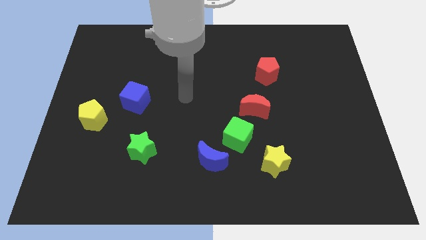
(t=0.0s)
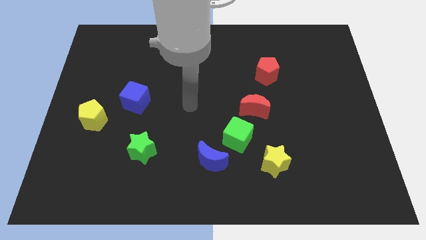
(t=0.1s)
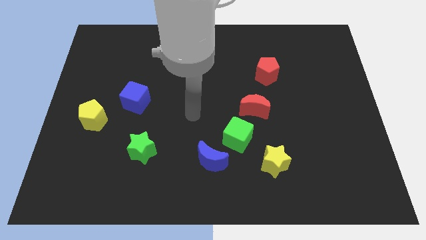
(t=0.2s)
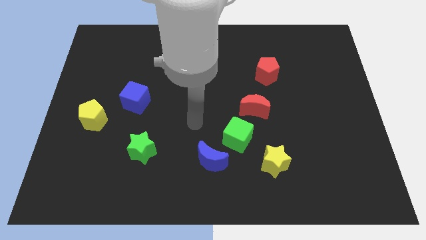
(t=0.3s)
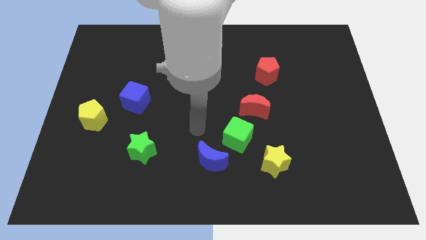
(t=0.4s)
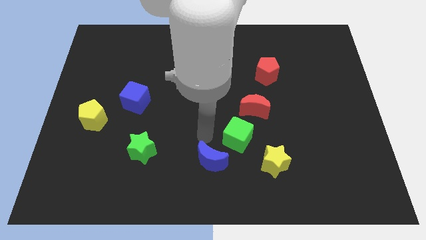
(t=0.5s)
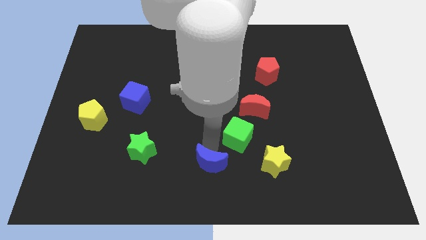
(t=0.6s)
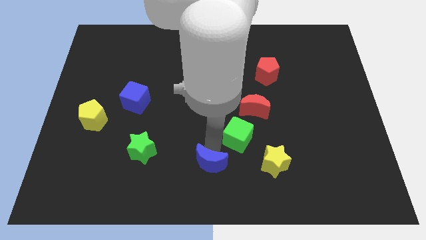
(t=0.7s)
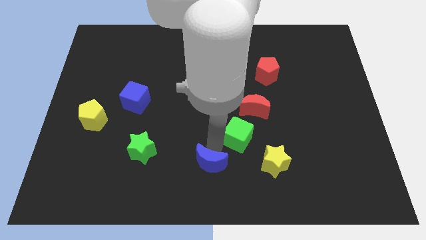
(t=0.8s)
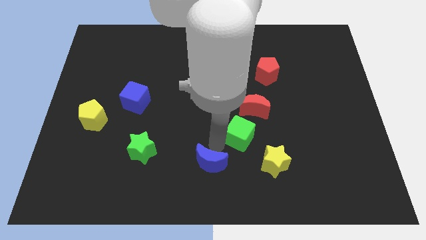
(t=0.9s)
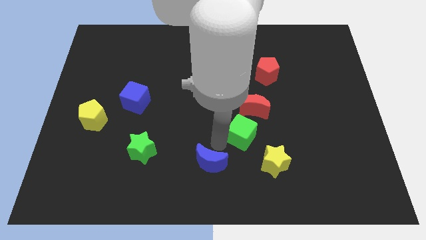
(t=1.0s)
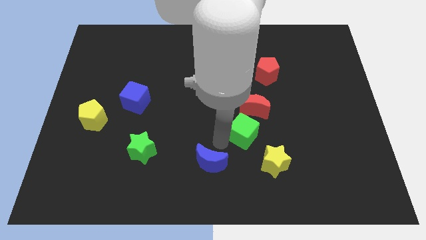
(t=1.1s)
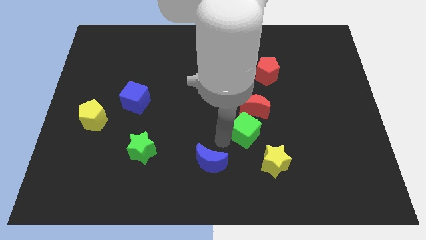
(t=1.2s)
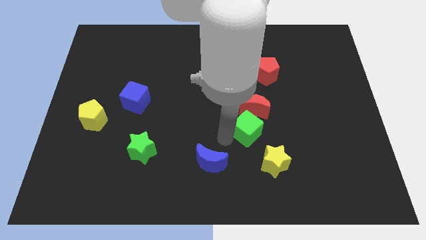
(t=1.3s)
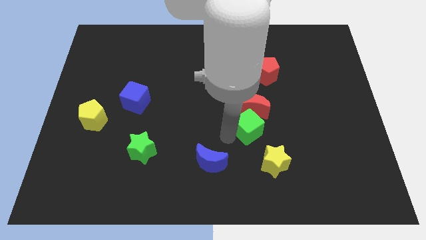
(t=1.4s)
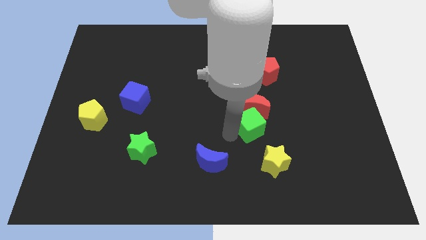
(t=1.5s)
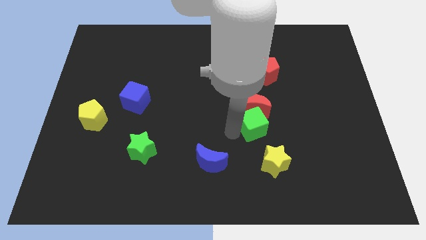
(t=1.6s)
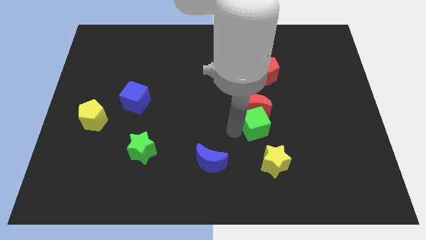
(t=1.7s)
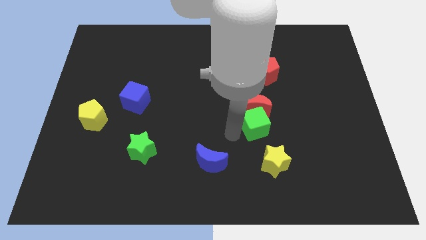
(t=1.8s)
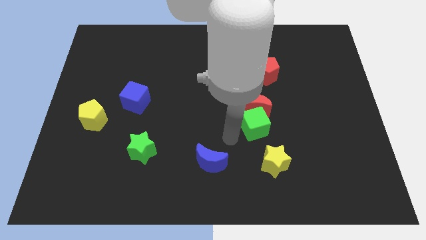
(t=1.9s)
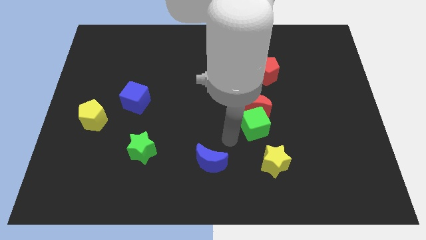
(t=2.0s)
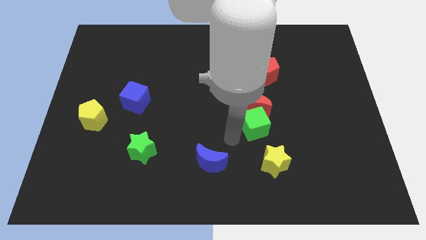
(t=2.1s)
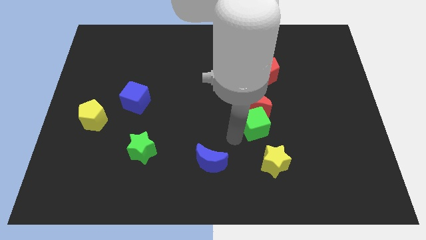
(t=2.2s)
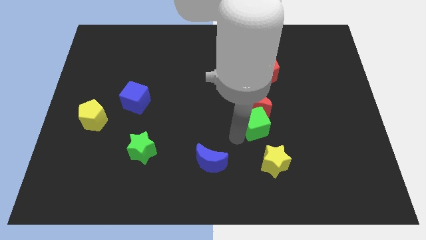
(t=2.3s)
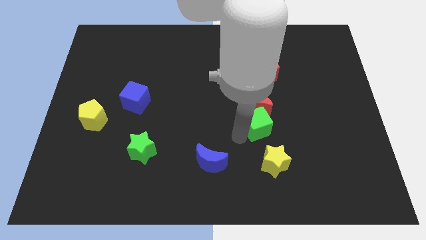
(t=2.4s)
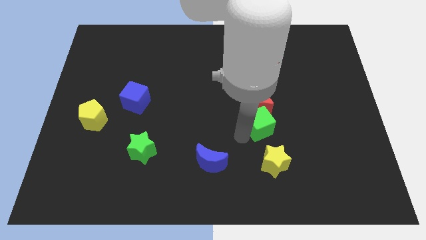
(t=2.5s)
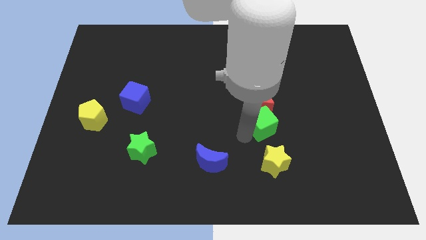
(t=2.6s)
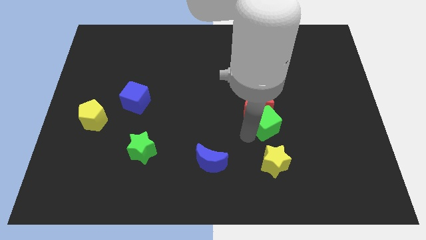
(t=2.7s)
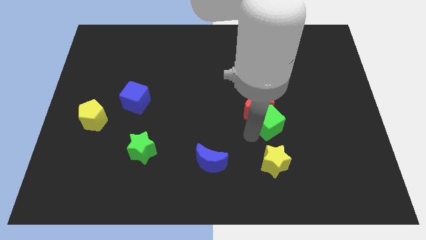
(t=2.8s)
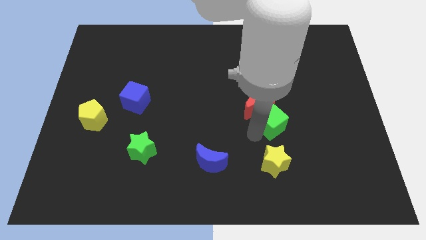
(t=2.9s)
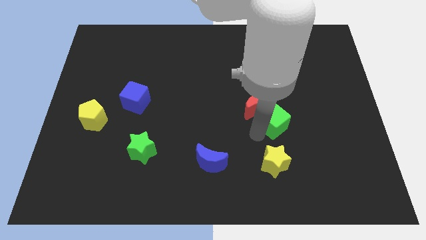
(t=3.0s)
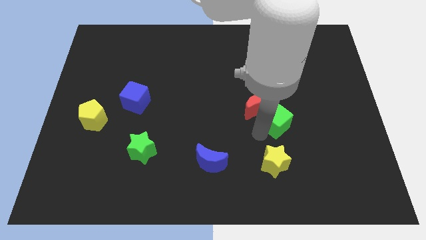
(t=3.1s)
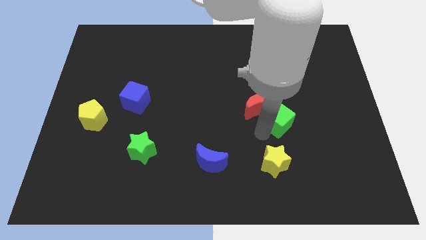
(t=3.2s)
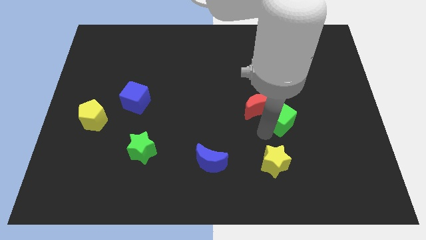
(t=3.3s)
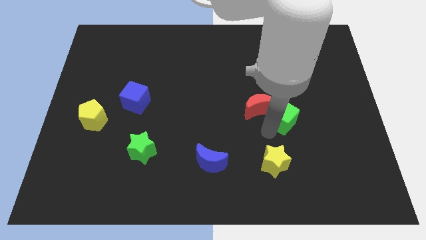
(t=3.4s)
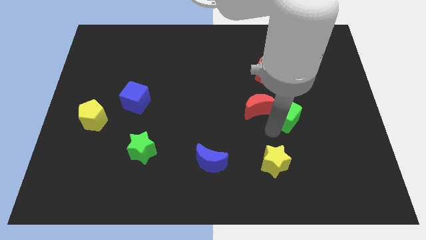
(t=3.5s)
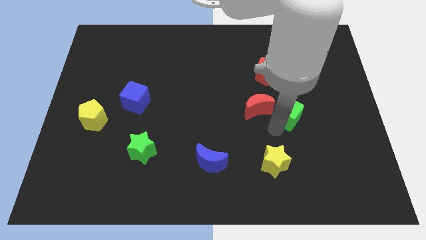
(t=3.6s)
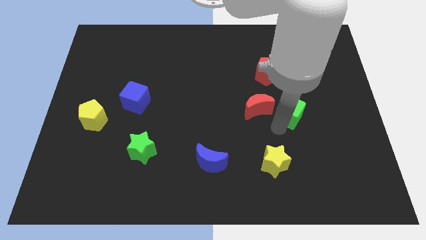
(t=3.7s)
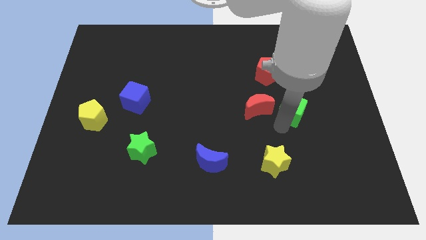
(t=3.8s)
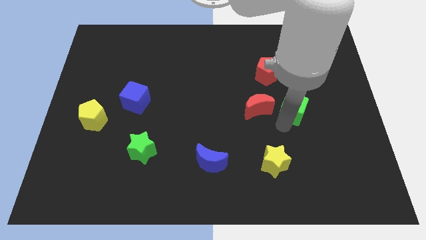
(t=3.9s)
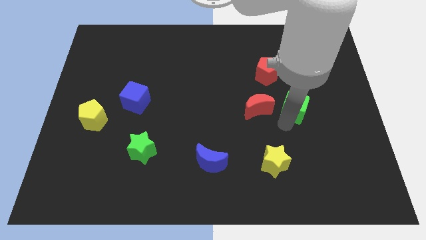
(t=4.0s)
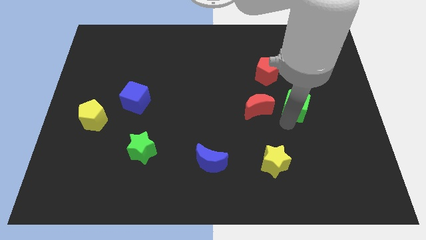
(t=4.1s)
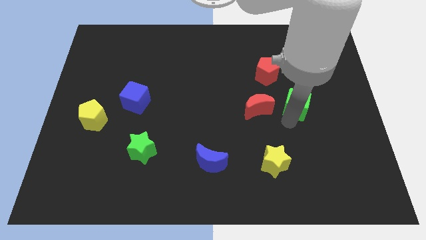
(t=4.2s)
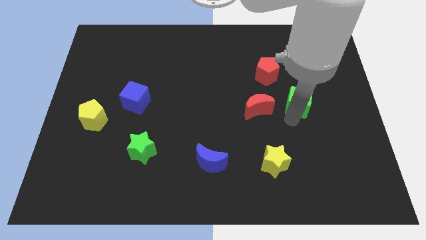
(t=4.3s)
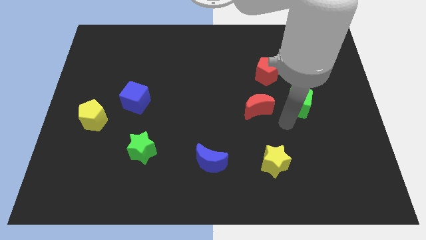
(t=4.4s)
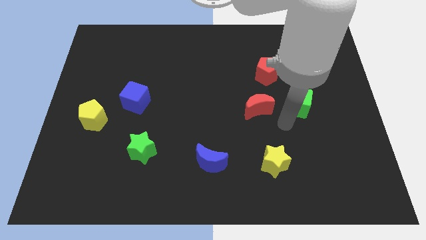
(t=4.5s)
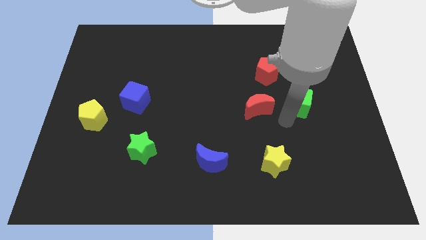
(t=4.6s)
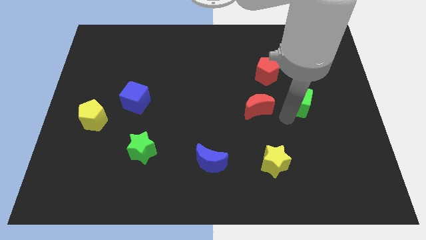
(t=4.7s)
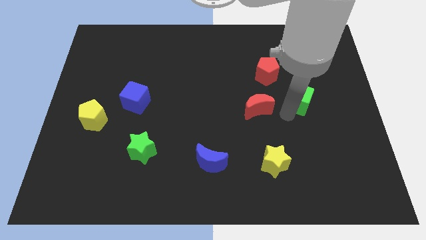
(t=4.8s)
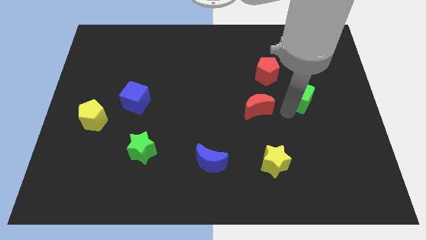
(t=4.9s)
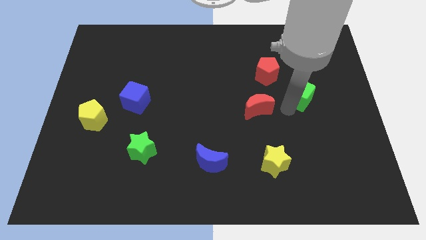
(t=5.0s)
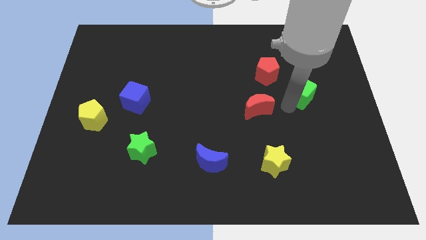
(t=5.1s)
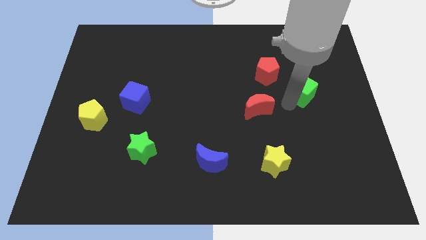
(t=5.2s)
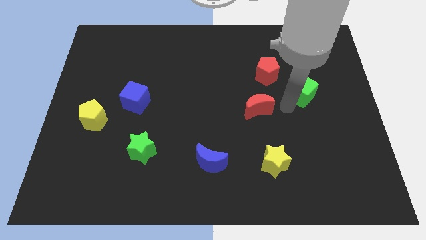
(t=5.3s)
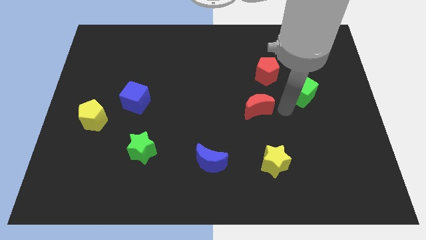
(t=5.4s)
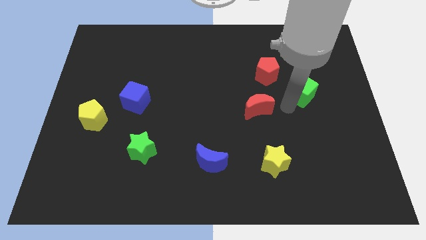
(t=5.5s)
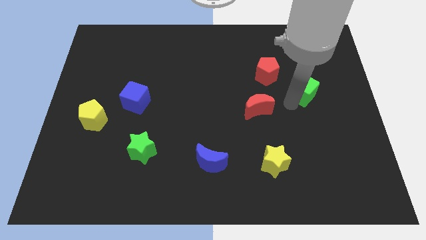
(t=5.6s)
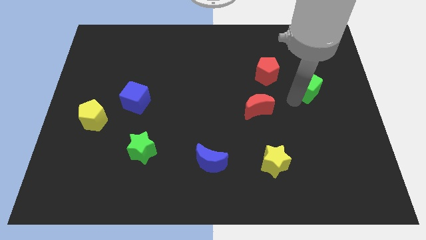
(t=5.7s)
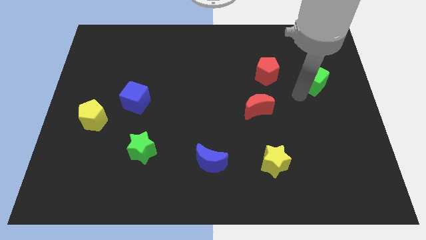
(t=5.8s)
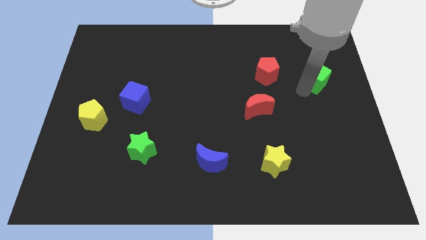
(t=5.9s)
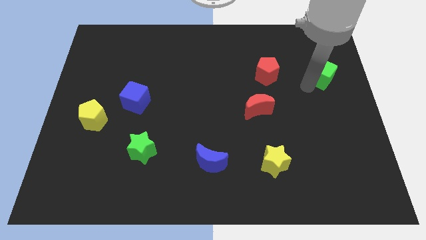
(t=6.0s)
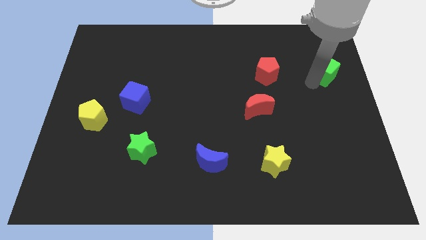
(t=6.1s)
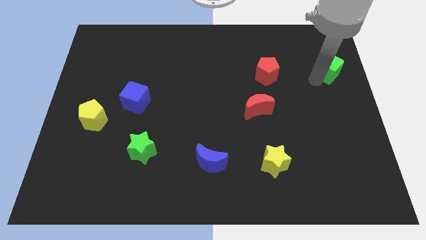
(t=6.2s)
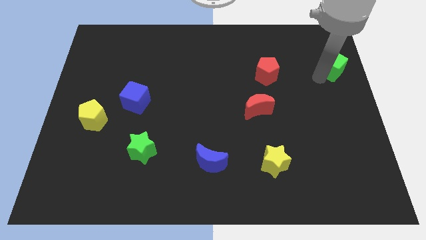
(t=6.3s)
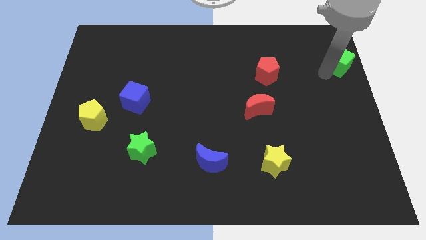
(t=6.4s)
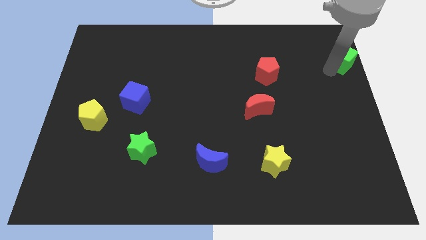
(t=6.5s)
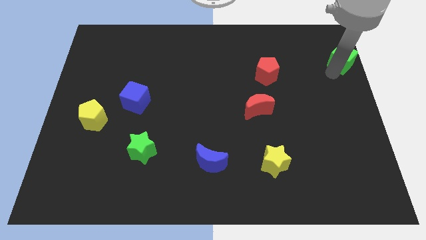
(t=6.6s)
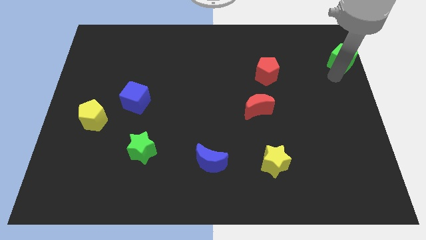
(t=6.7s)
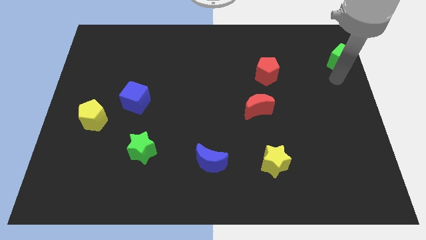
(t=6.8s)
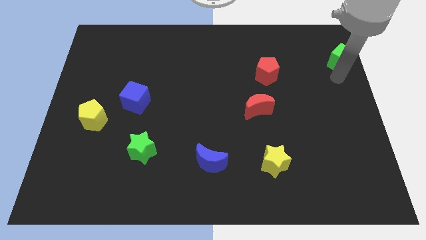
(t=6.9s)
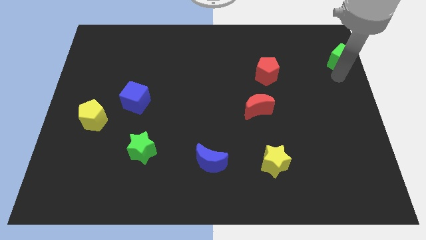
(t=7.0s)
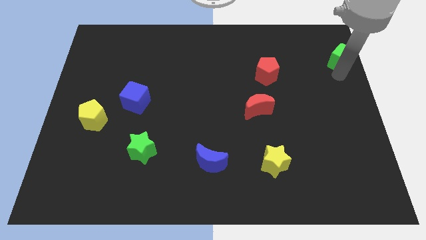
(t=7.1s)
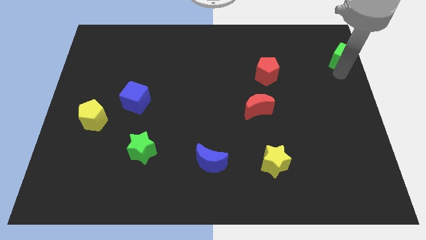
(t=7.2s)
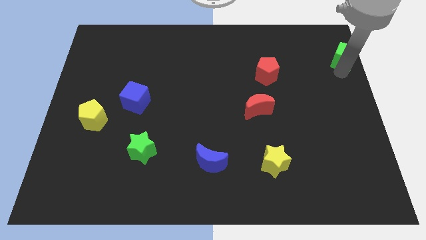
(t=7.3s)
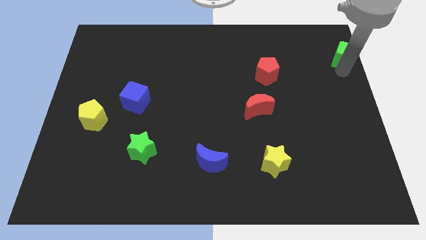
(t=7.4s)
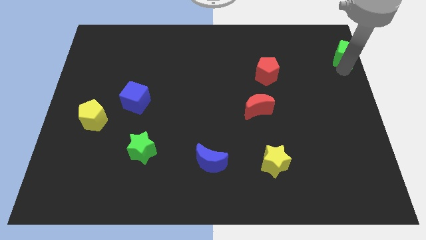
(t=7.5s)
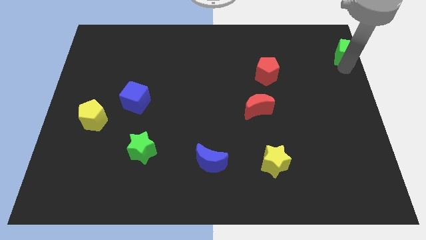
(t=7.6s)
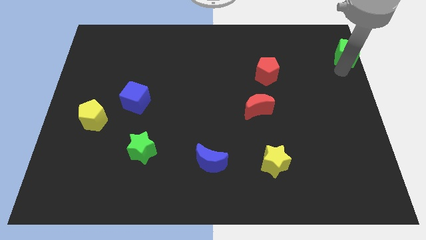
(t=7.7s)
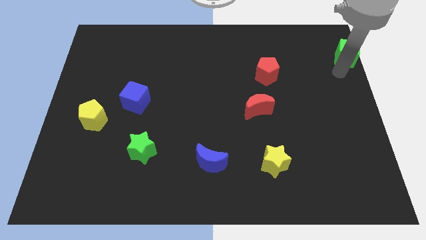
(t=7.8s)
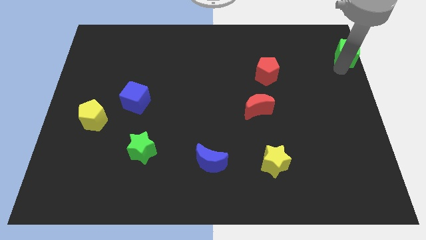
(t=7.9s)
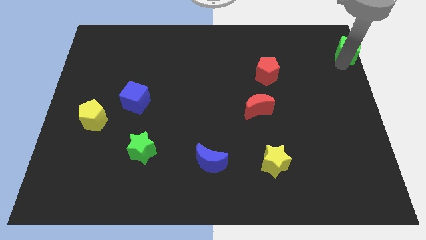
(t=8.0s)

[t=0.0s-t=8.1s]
push the green cube to the top right of the board
